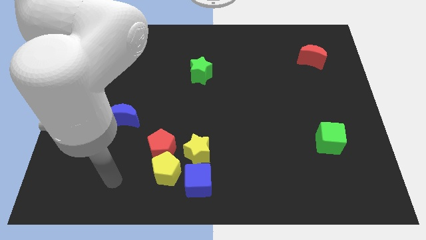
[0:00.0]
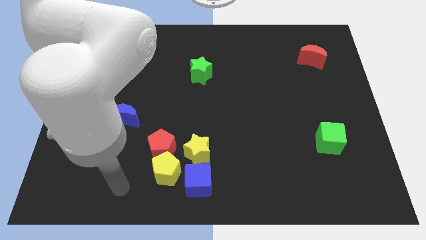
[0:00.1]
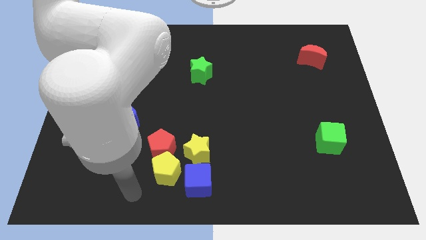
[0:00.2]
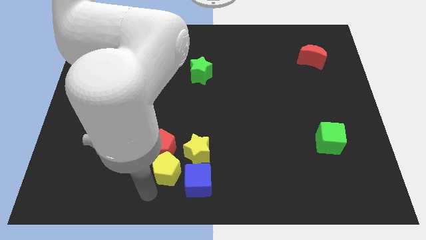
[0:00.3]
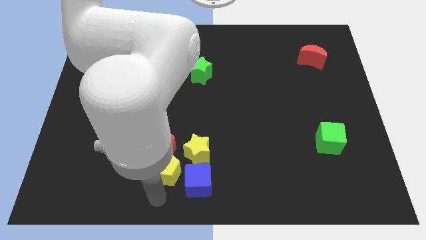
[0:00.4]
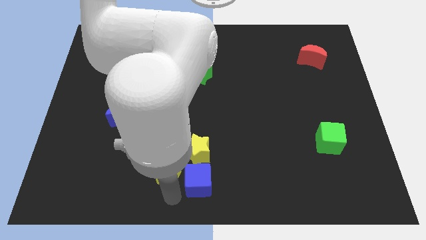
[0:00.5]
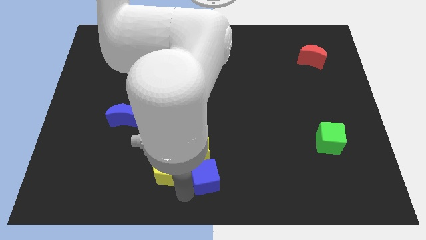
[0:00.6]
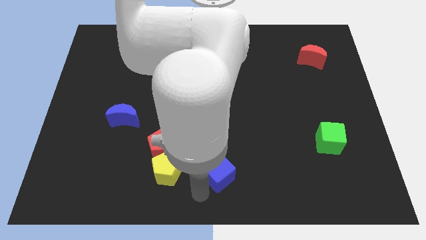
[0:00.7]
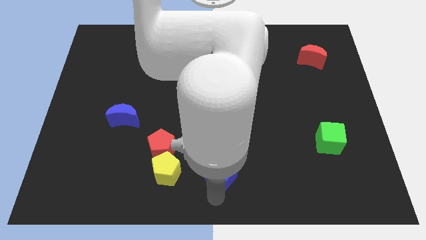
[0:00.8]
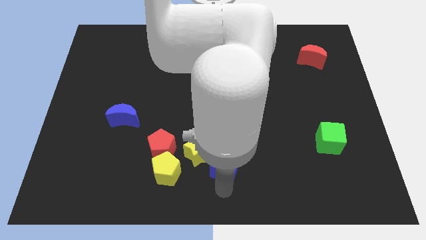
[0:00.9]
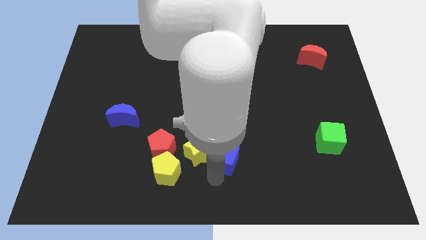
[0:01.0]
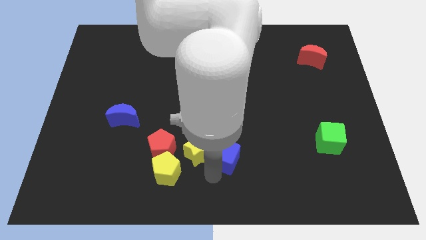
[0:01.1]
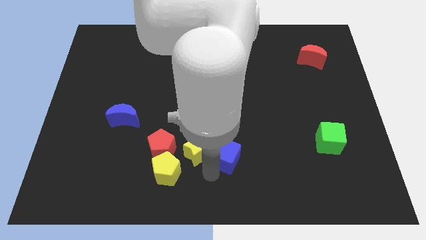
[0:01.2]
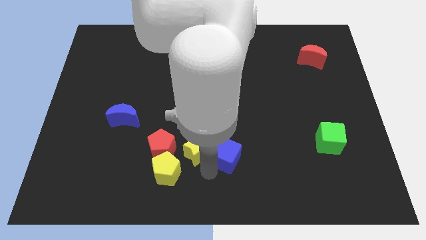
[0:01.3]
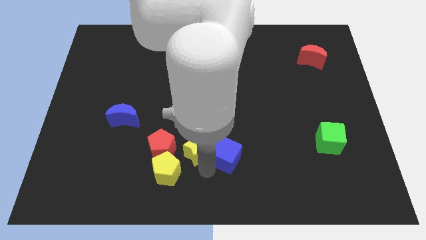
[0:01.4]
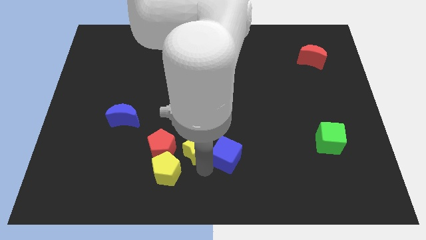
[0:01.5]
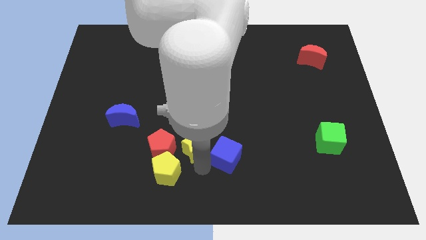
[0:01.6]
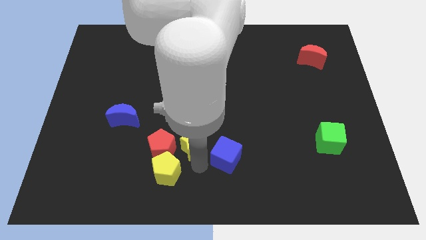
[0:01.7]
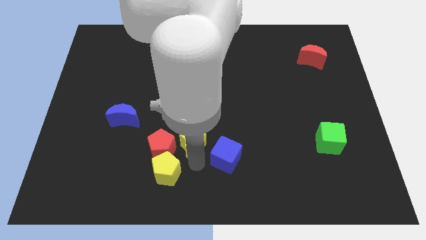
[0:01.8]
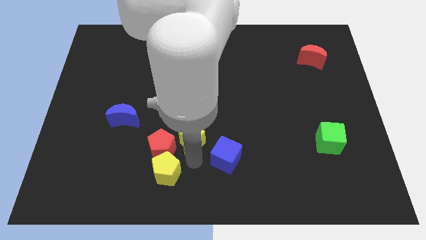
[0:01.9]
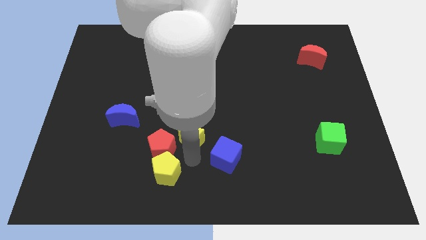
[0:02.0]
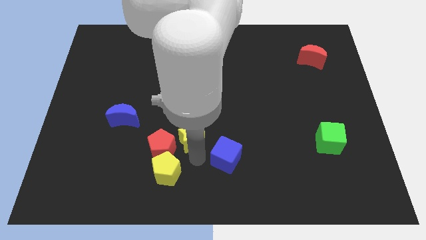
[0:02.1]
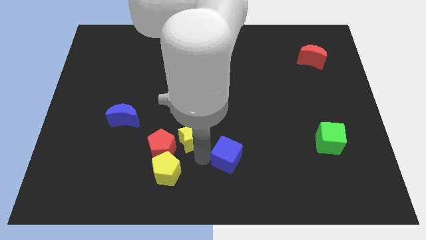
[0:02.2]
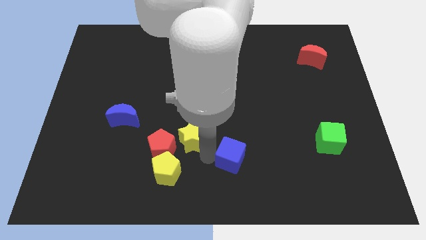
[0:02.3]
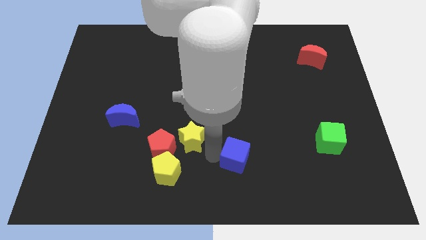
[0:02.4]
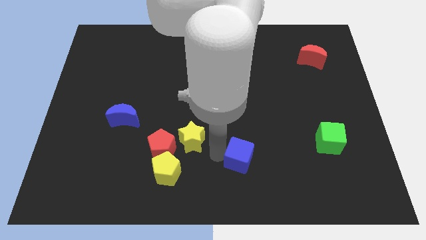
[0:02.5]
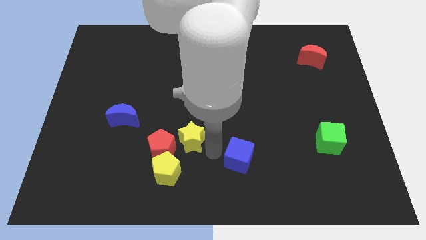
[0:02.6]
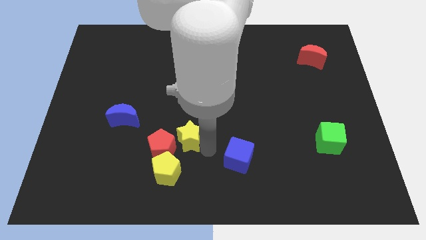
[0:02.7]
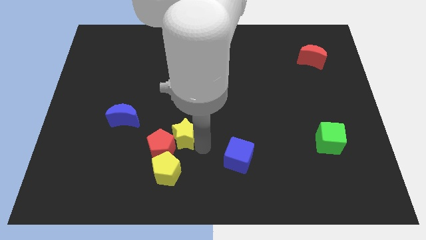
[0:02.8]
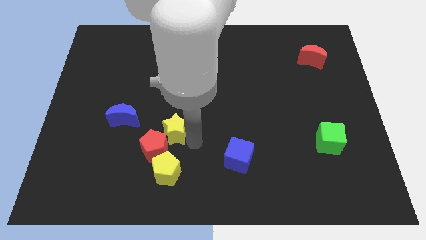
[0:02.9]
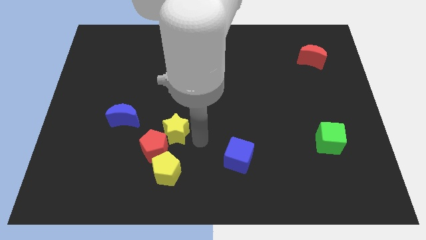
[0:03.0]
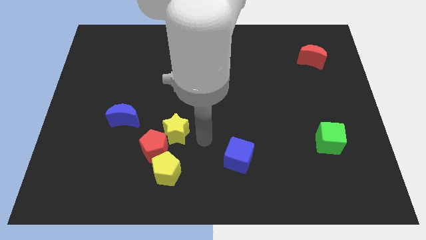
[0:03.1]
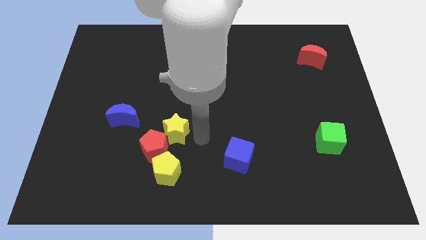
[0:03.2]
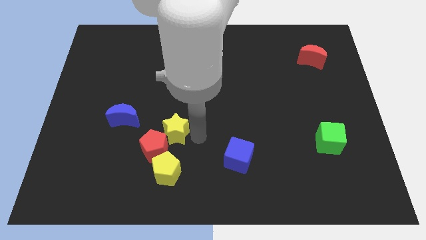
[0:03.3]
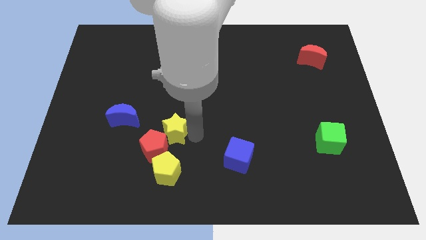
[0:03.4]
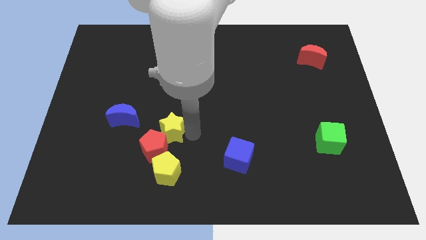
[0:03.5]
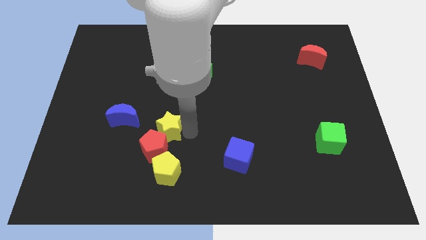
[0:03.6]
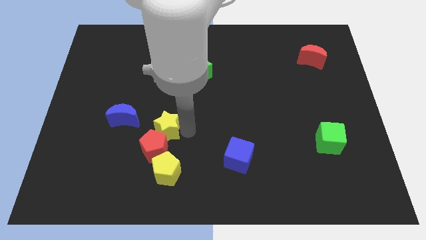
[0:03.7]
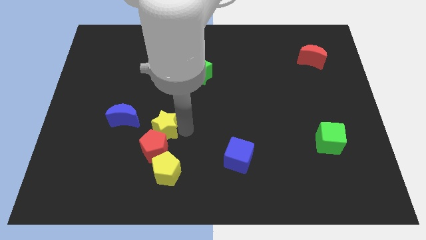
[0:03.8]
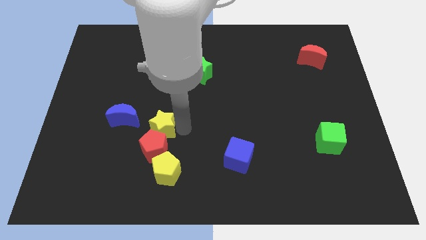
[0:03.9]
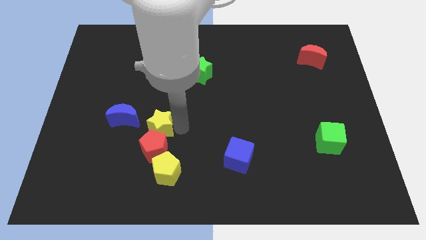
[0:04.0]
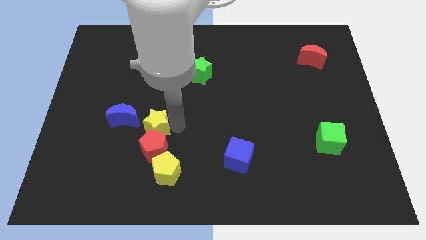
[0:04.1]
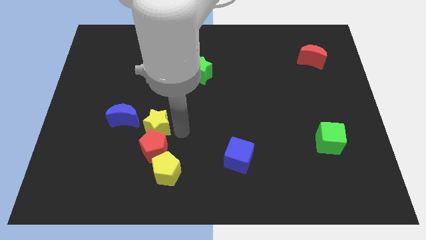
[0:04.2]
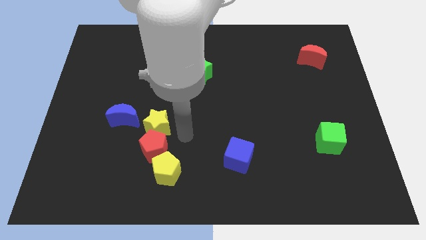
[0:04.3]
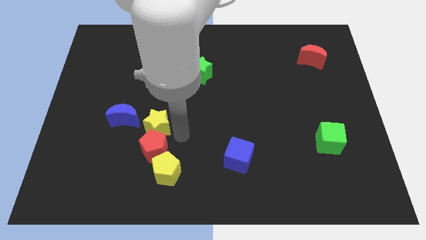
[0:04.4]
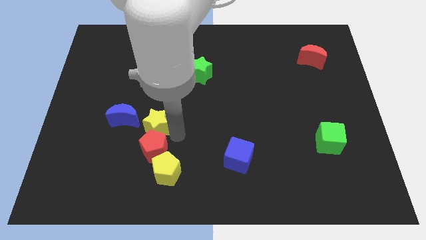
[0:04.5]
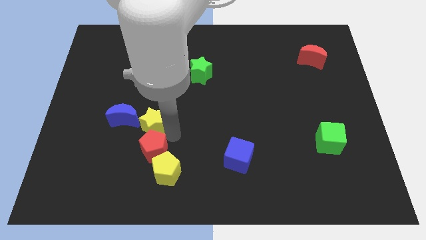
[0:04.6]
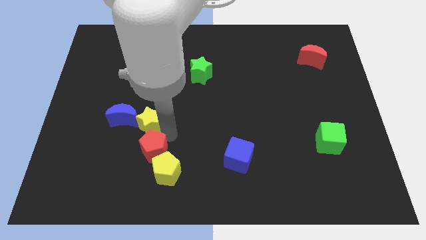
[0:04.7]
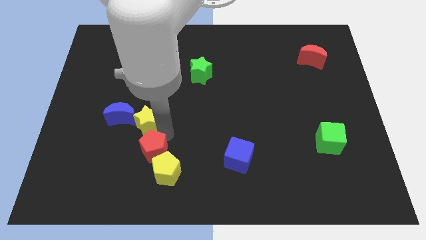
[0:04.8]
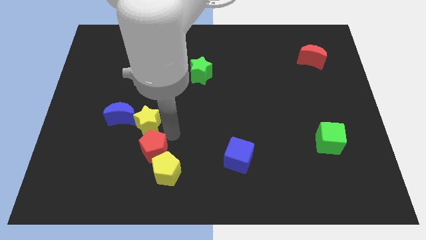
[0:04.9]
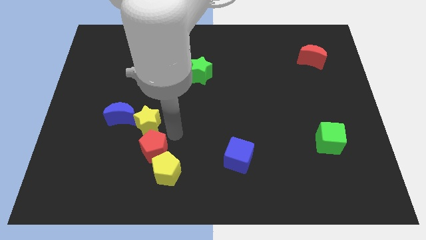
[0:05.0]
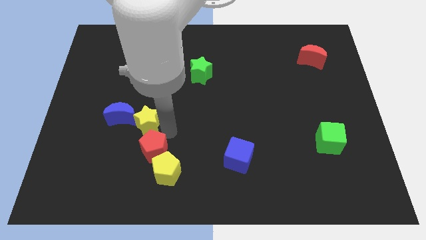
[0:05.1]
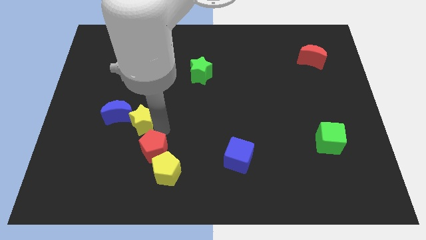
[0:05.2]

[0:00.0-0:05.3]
slide the yellow star to the blue moon

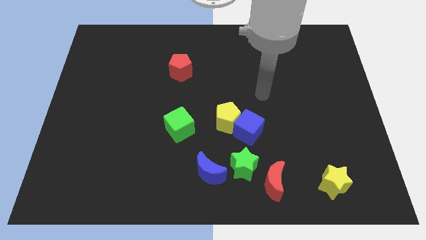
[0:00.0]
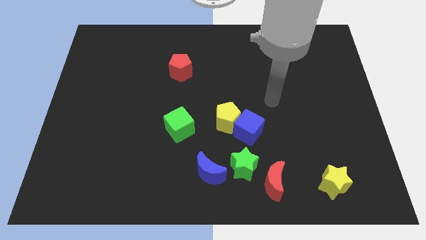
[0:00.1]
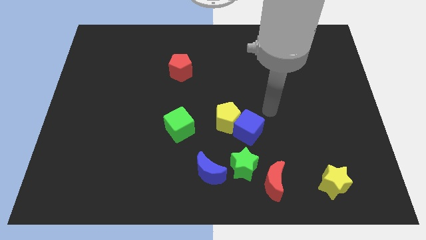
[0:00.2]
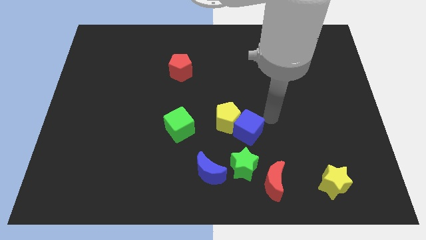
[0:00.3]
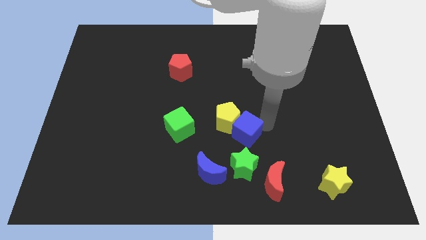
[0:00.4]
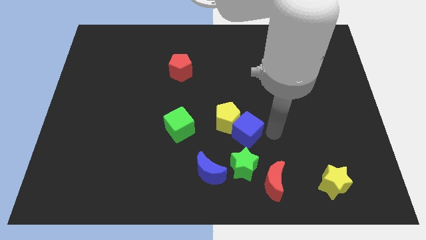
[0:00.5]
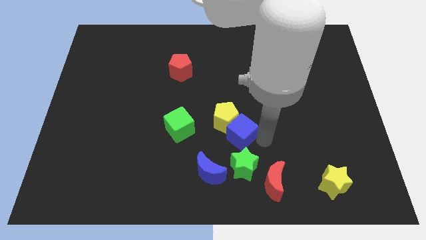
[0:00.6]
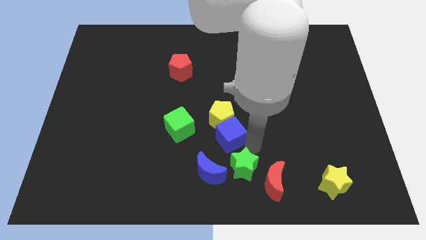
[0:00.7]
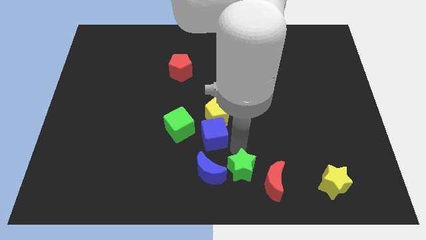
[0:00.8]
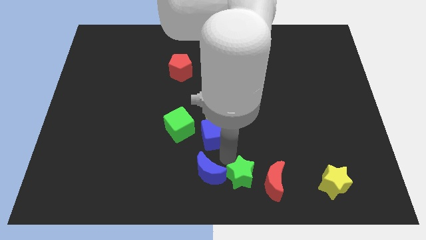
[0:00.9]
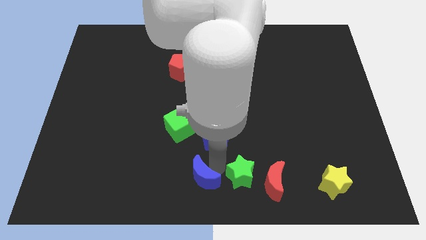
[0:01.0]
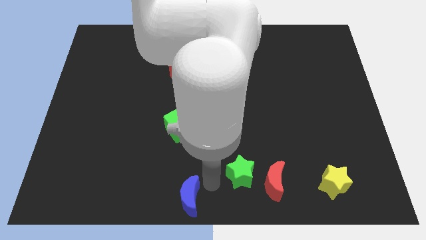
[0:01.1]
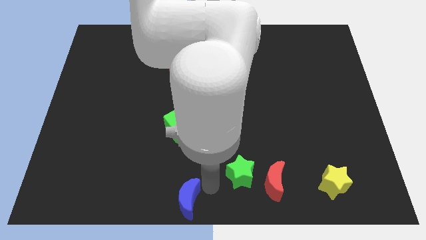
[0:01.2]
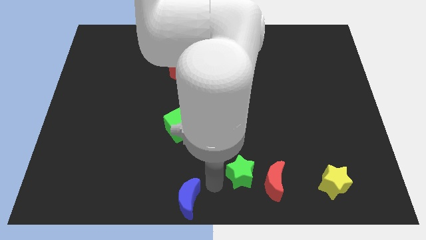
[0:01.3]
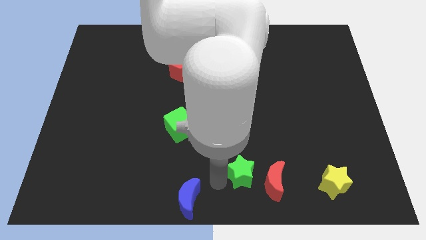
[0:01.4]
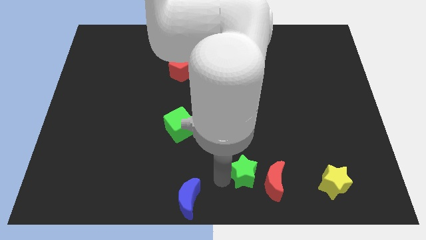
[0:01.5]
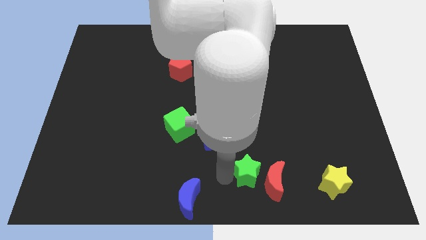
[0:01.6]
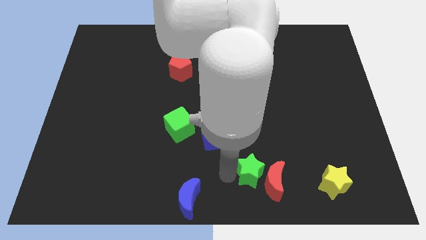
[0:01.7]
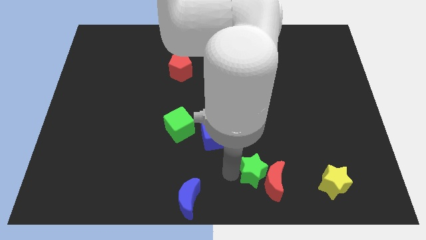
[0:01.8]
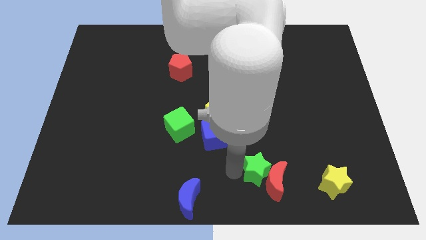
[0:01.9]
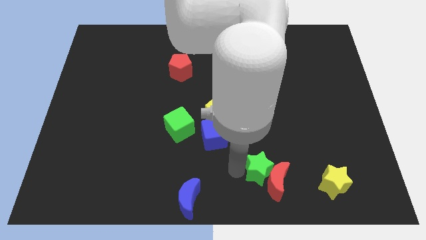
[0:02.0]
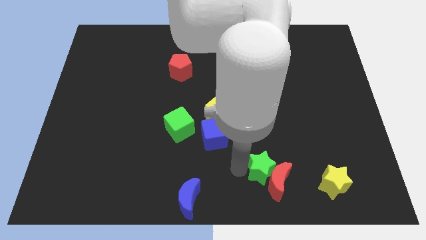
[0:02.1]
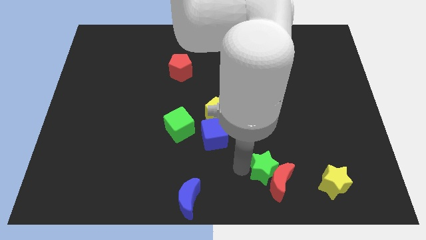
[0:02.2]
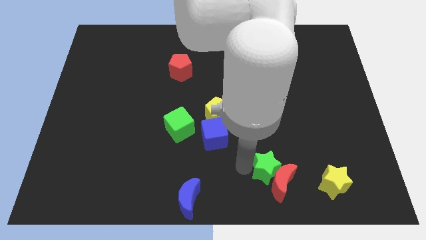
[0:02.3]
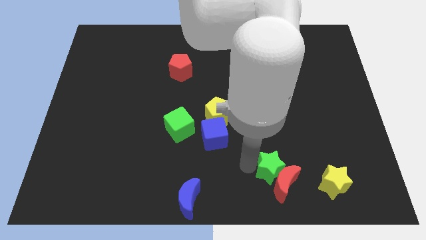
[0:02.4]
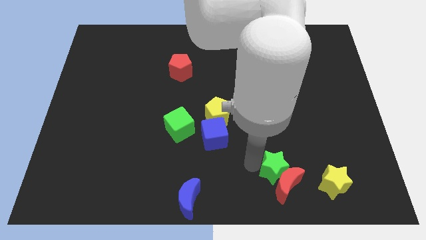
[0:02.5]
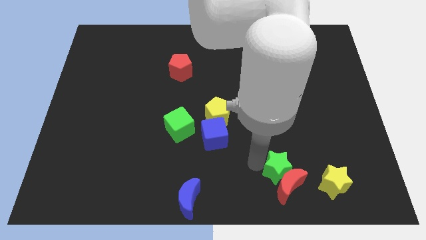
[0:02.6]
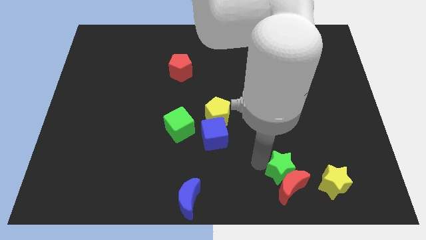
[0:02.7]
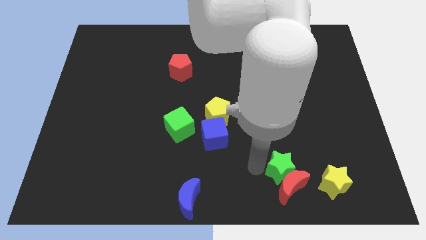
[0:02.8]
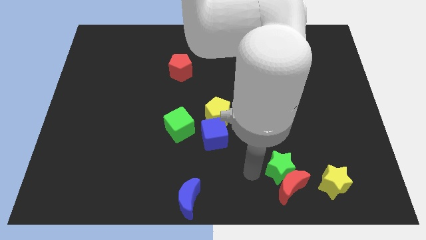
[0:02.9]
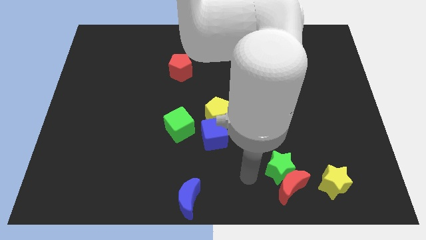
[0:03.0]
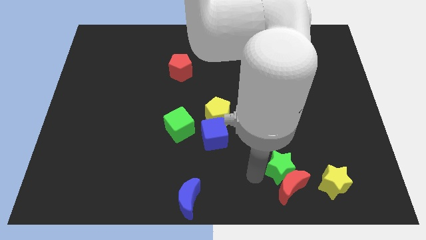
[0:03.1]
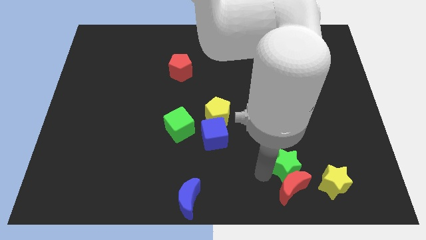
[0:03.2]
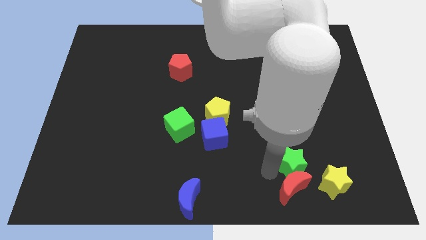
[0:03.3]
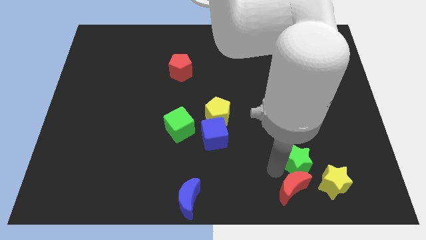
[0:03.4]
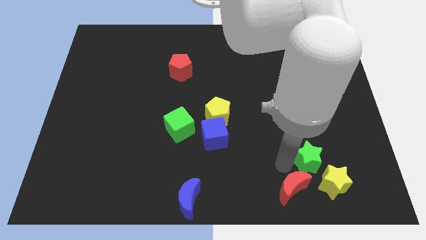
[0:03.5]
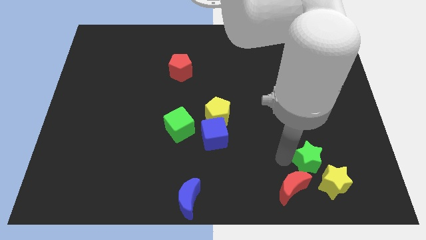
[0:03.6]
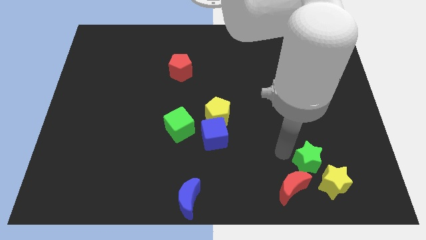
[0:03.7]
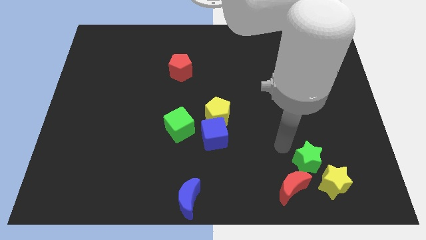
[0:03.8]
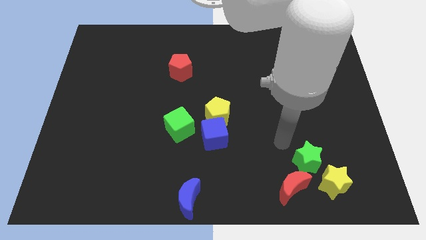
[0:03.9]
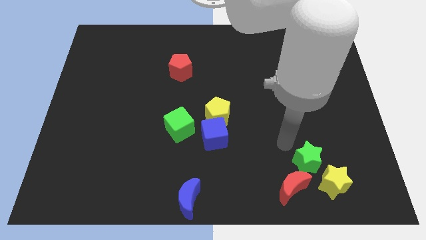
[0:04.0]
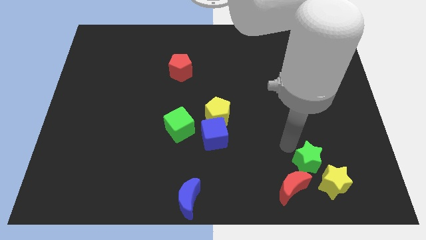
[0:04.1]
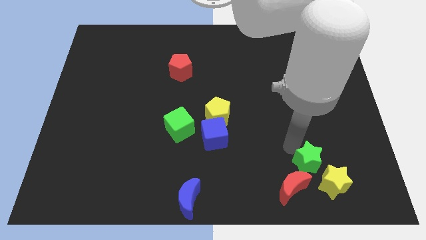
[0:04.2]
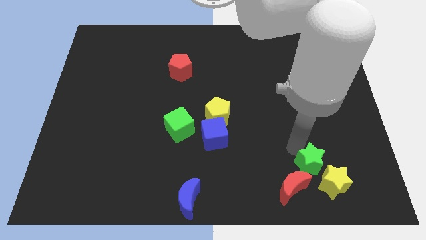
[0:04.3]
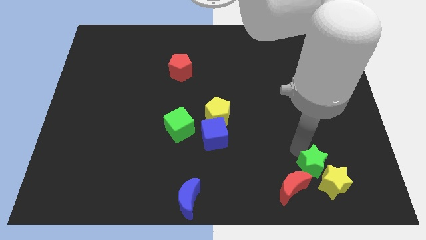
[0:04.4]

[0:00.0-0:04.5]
slide the green star towards the yellow star
